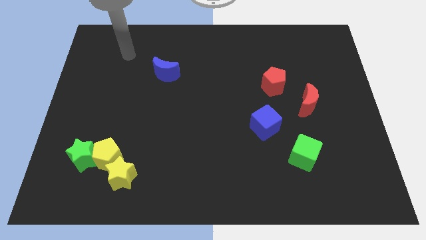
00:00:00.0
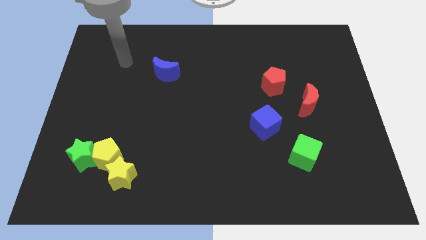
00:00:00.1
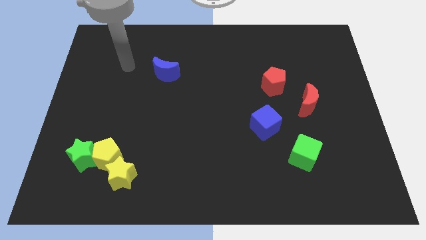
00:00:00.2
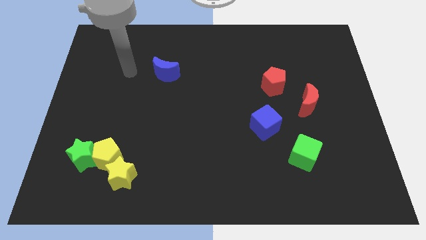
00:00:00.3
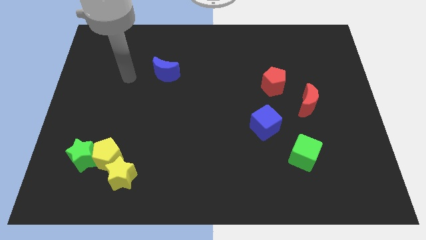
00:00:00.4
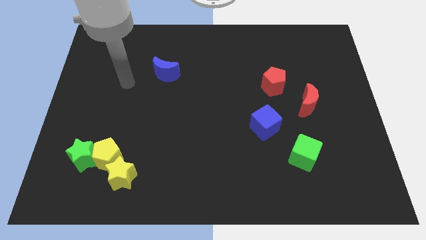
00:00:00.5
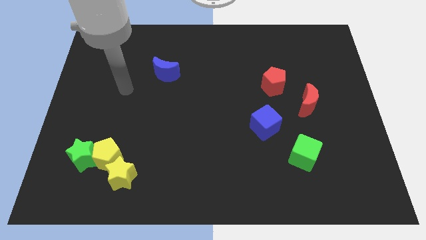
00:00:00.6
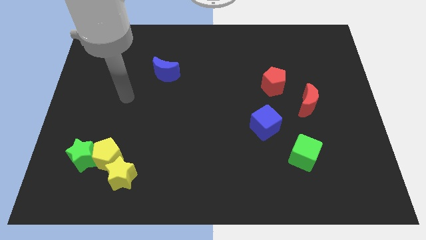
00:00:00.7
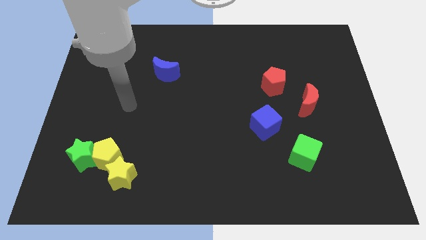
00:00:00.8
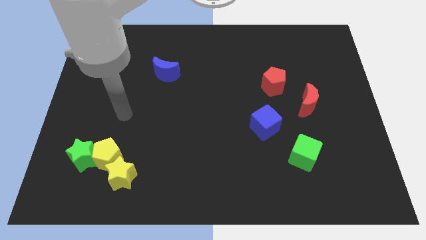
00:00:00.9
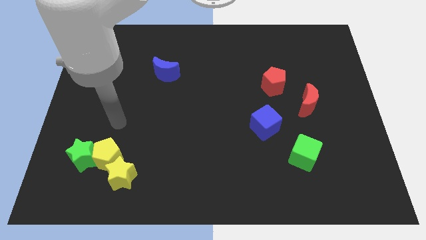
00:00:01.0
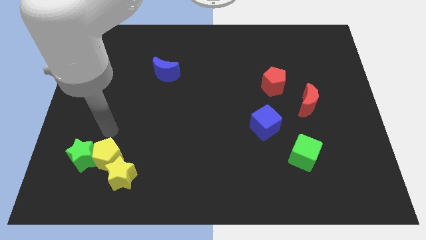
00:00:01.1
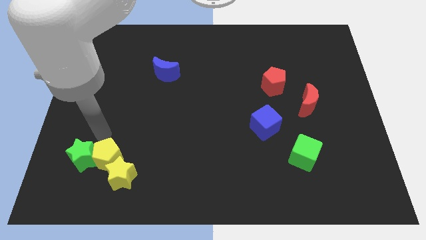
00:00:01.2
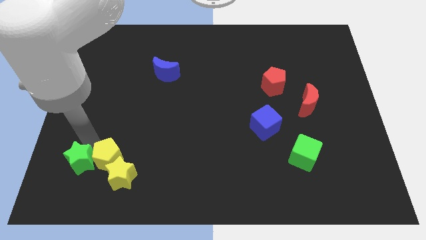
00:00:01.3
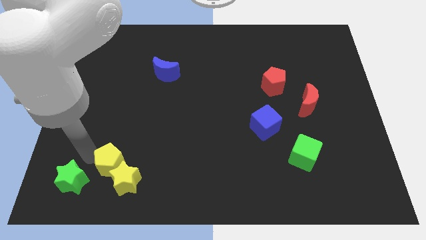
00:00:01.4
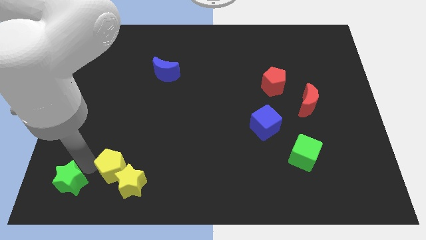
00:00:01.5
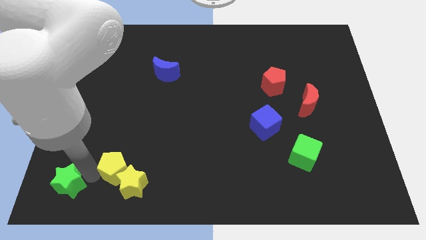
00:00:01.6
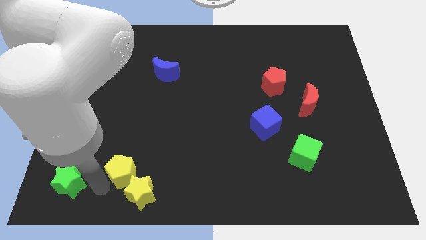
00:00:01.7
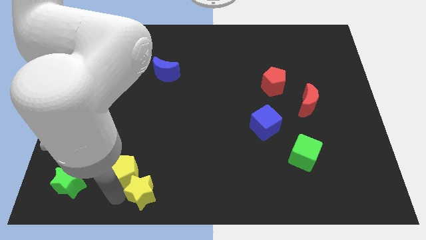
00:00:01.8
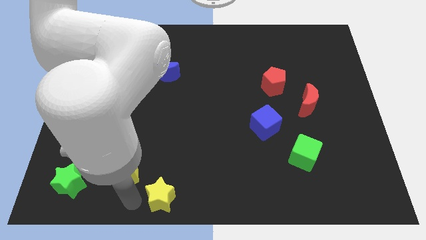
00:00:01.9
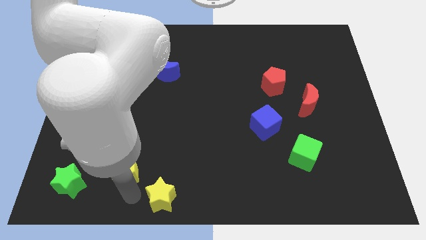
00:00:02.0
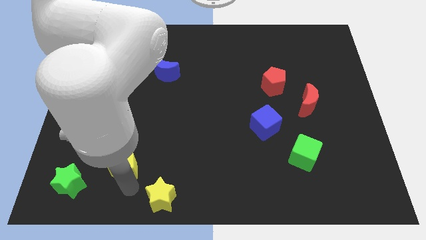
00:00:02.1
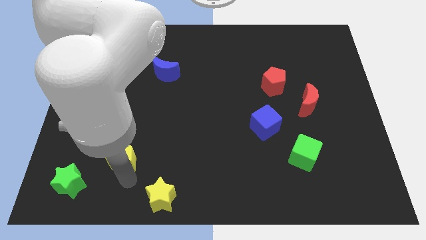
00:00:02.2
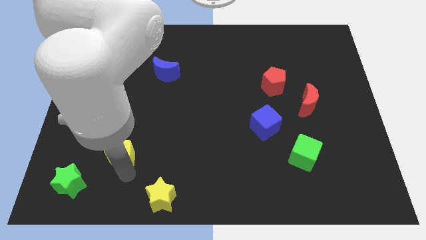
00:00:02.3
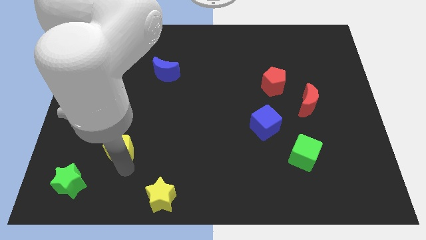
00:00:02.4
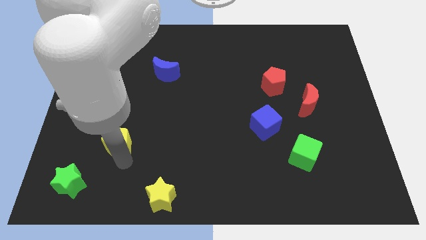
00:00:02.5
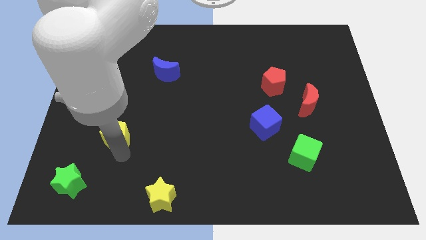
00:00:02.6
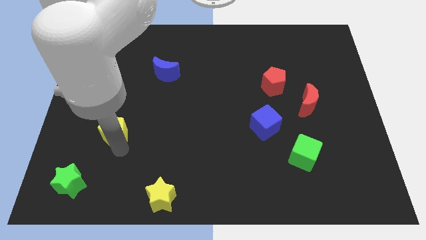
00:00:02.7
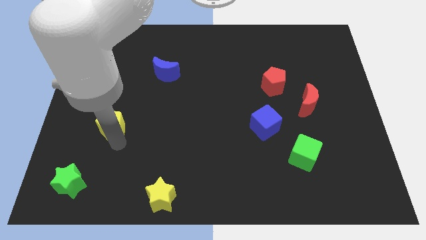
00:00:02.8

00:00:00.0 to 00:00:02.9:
move the yellow pentagon upwards a little

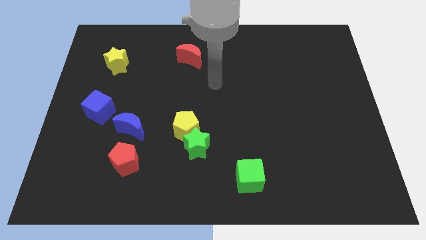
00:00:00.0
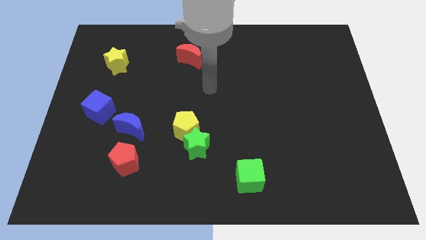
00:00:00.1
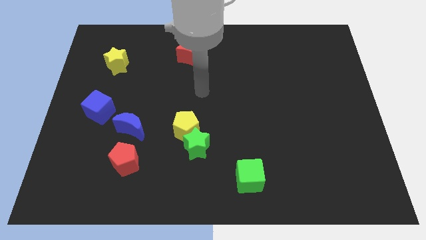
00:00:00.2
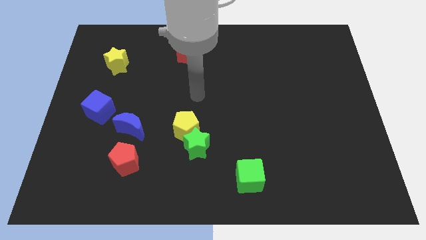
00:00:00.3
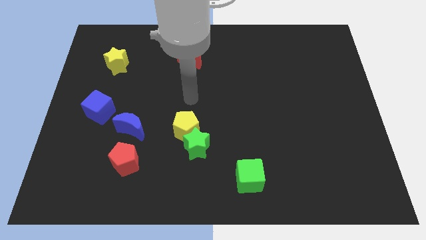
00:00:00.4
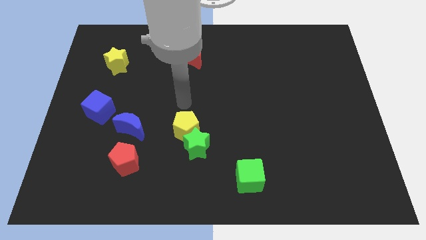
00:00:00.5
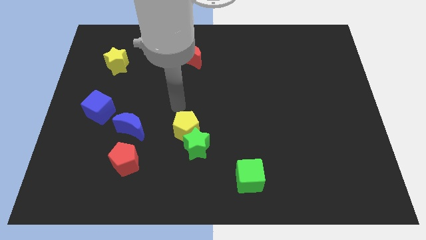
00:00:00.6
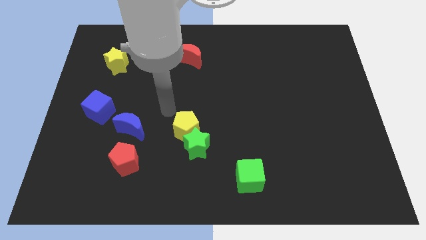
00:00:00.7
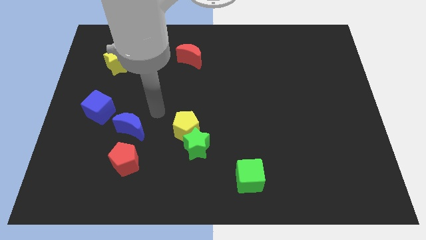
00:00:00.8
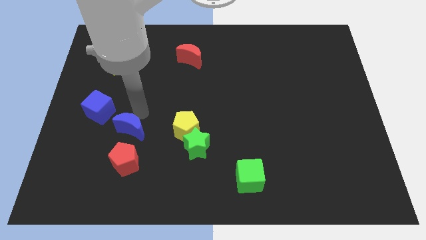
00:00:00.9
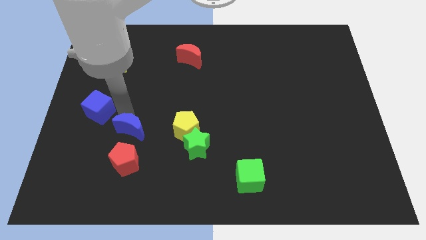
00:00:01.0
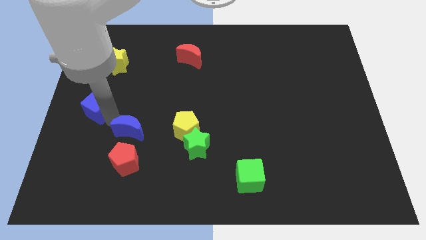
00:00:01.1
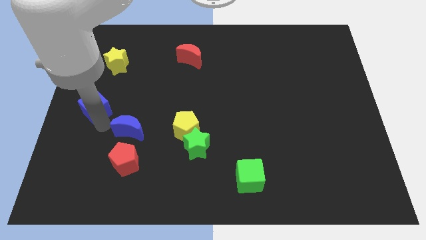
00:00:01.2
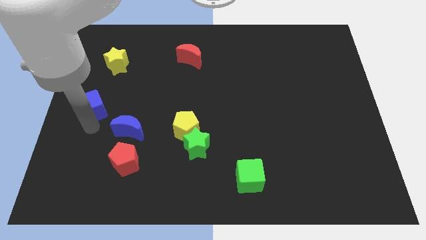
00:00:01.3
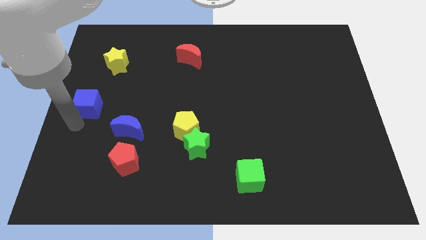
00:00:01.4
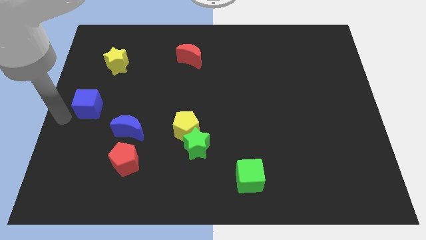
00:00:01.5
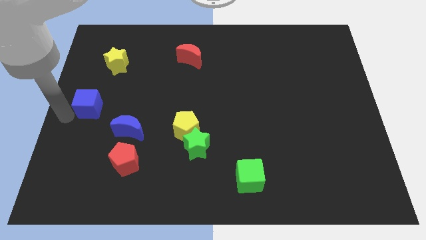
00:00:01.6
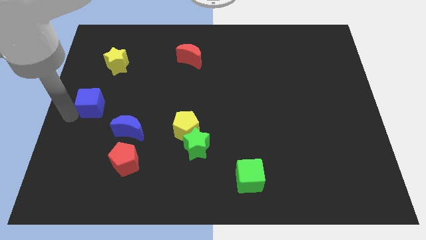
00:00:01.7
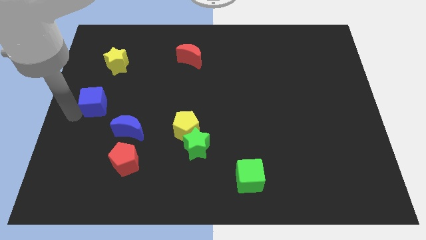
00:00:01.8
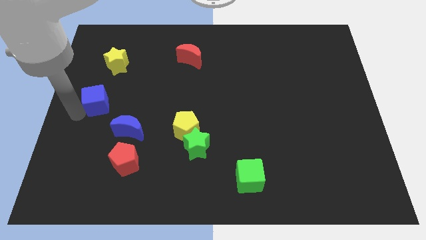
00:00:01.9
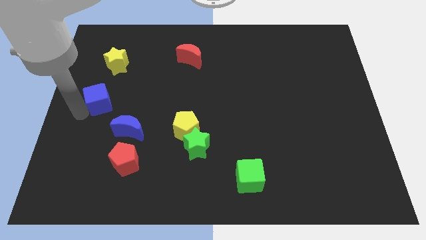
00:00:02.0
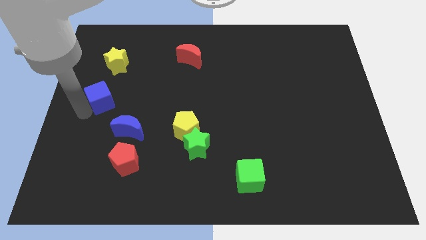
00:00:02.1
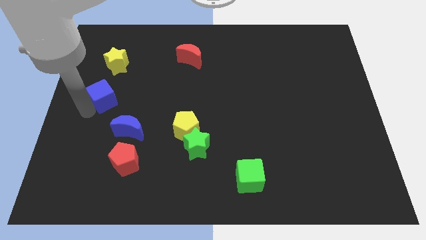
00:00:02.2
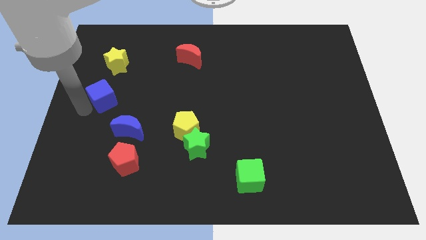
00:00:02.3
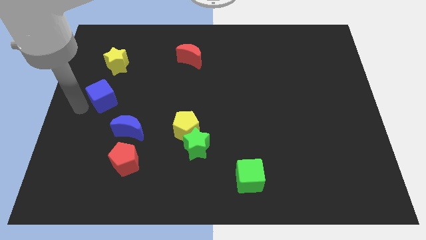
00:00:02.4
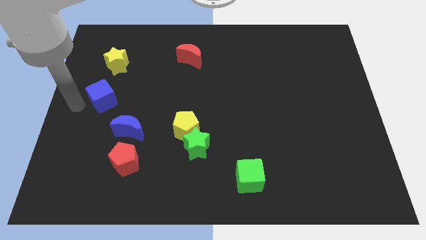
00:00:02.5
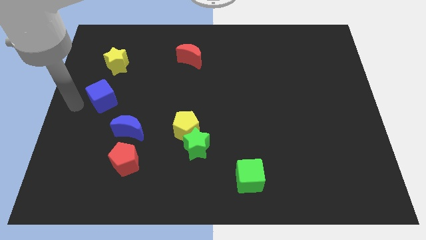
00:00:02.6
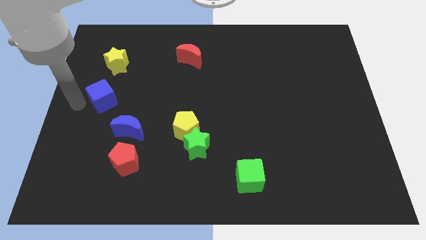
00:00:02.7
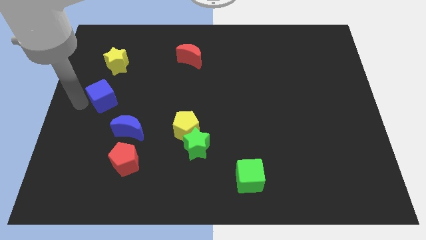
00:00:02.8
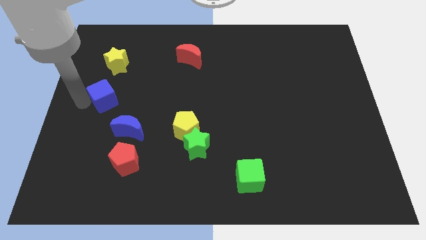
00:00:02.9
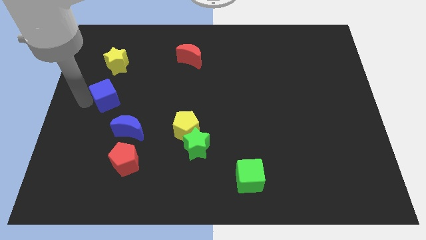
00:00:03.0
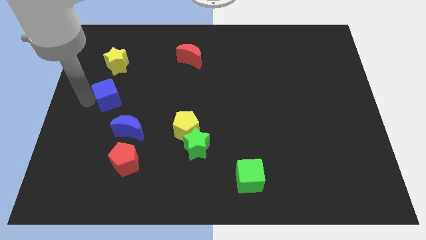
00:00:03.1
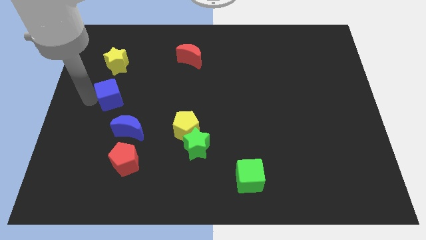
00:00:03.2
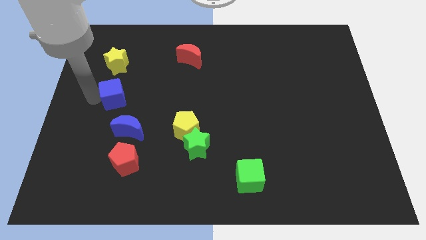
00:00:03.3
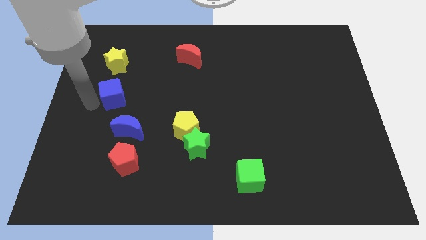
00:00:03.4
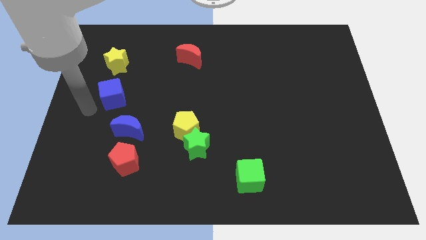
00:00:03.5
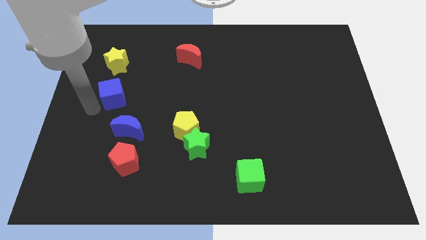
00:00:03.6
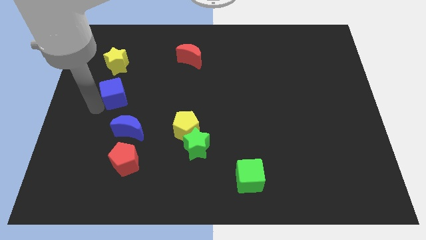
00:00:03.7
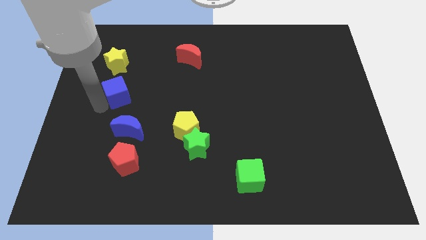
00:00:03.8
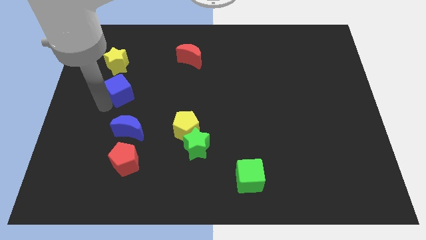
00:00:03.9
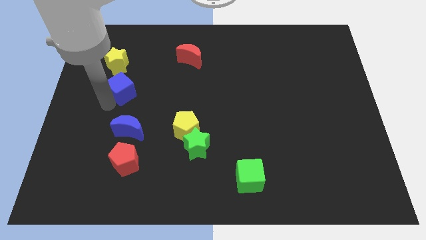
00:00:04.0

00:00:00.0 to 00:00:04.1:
slide the blue cube a bit diagonally up and right

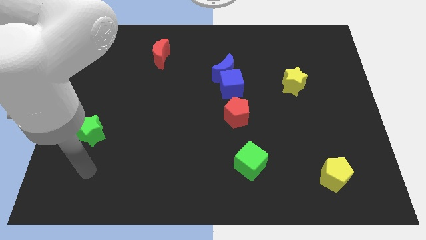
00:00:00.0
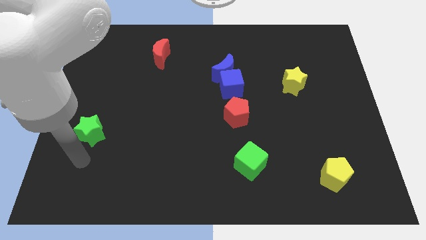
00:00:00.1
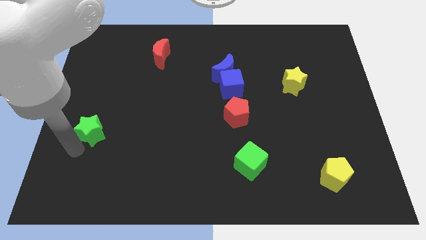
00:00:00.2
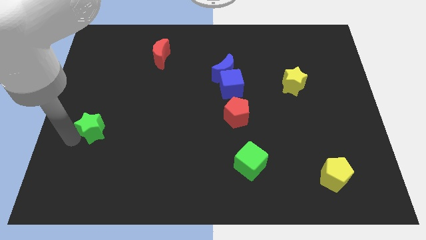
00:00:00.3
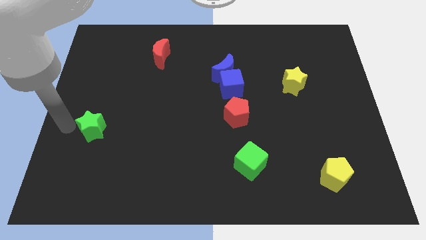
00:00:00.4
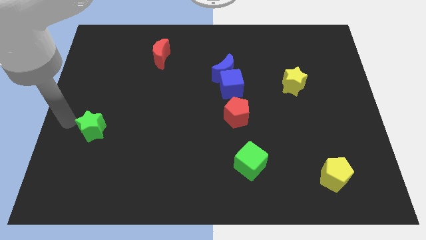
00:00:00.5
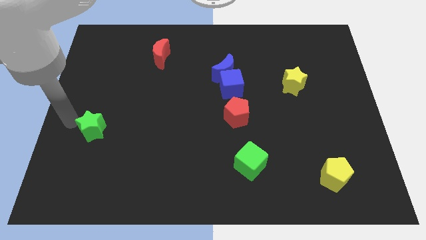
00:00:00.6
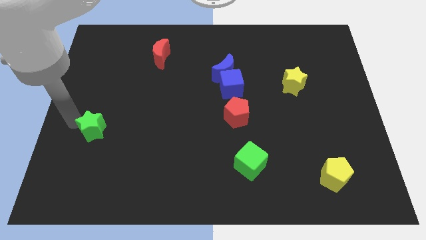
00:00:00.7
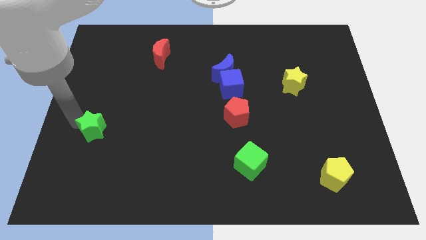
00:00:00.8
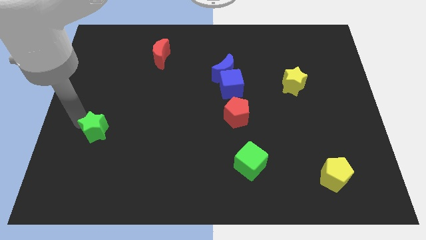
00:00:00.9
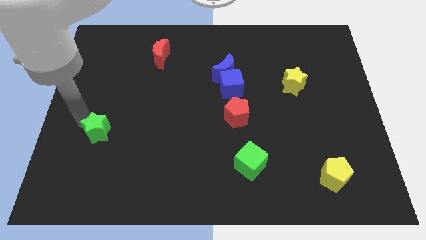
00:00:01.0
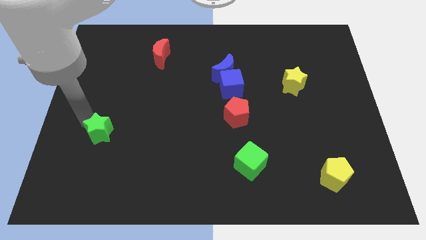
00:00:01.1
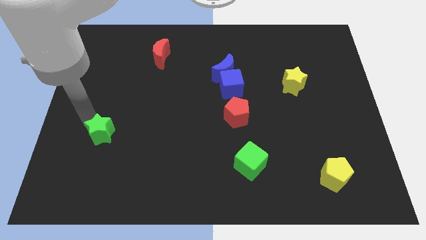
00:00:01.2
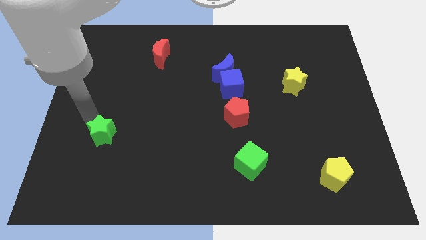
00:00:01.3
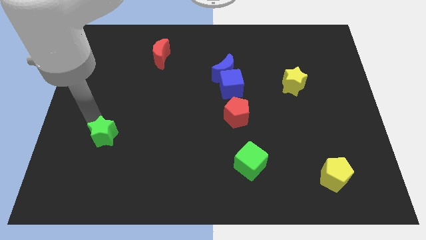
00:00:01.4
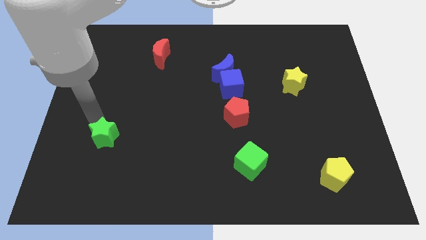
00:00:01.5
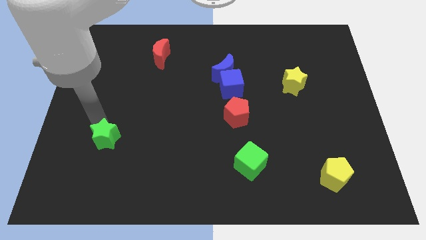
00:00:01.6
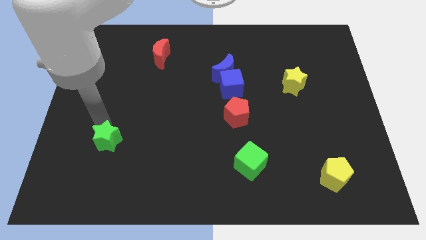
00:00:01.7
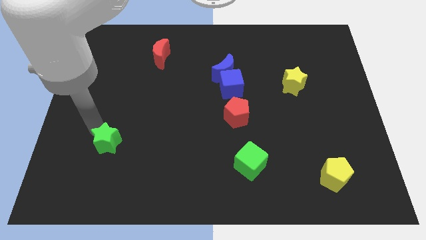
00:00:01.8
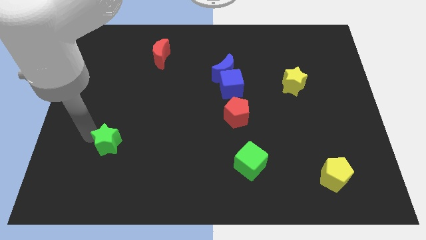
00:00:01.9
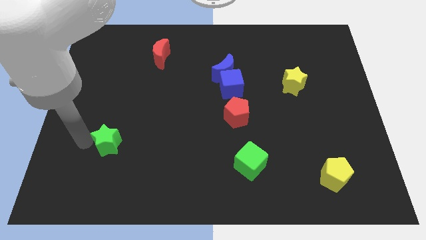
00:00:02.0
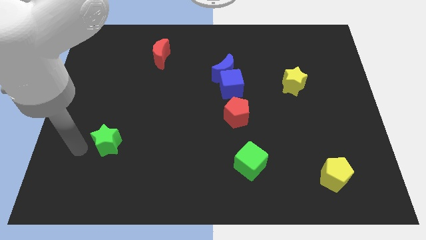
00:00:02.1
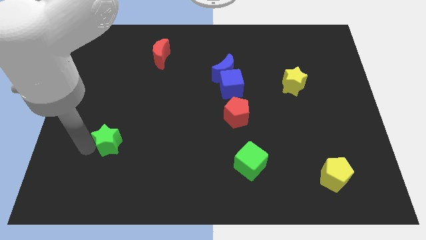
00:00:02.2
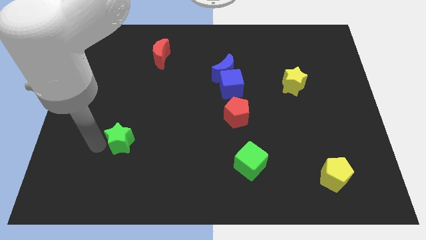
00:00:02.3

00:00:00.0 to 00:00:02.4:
slightly move the green star right
